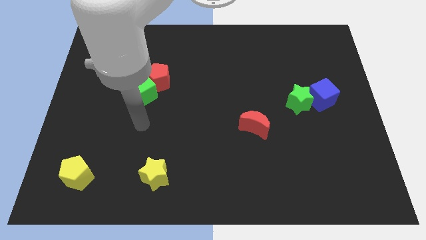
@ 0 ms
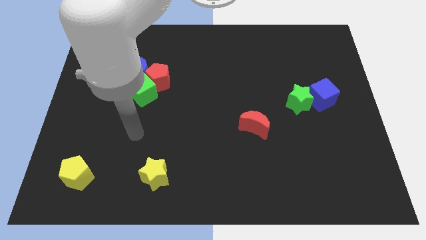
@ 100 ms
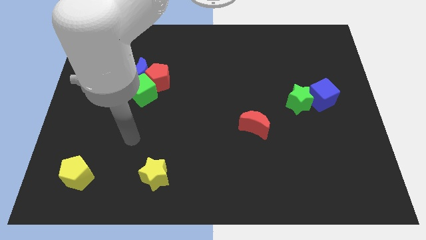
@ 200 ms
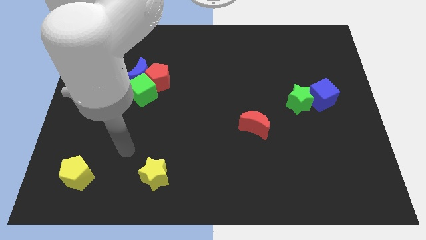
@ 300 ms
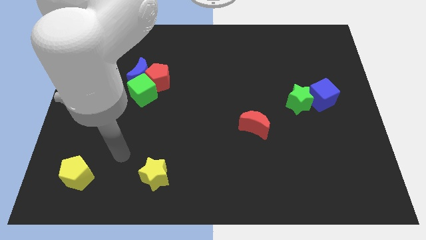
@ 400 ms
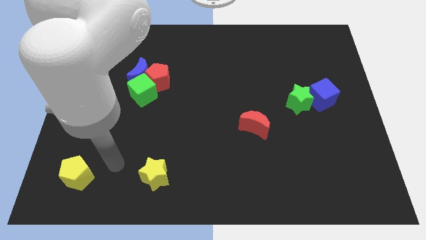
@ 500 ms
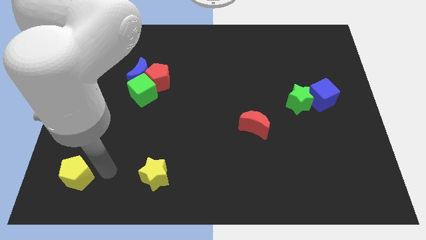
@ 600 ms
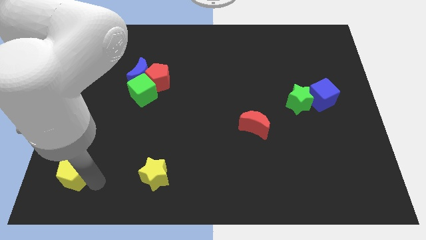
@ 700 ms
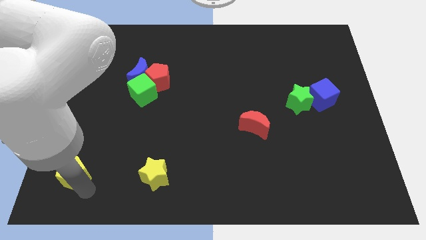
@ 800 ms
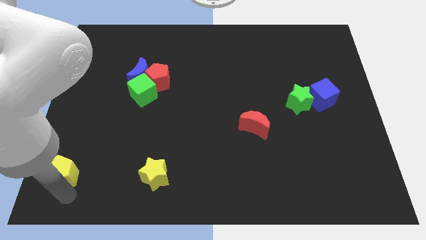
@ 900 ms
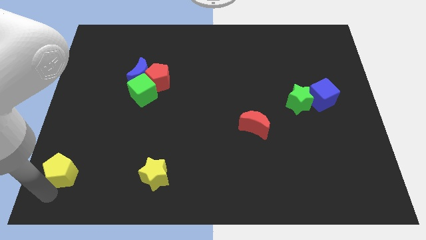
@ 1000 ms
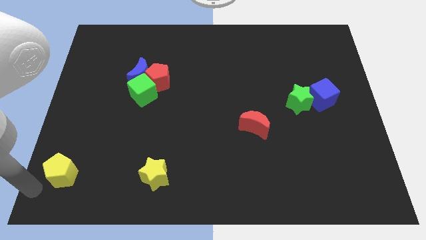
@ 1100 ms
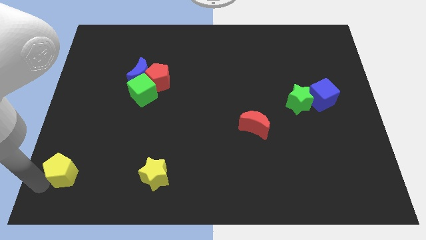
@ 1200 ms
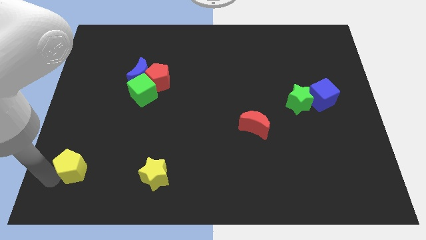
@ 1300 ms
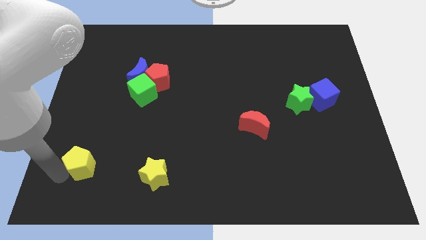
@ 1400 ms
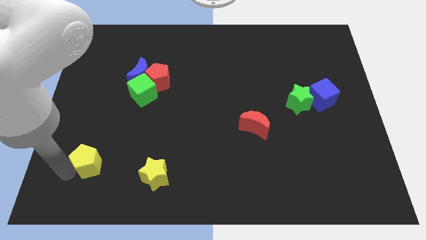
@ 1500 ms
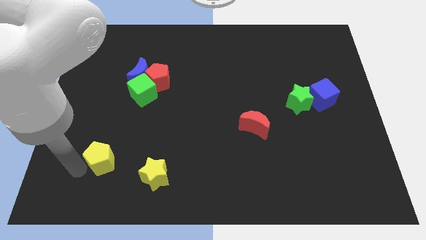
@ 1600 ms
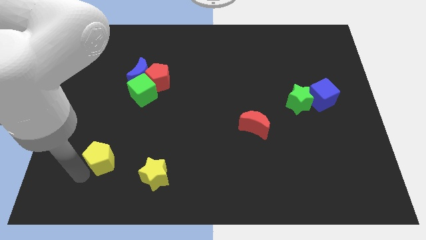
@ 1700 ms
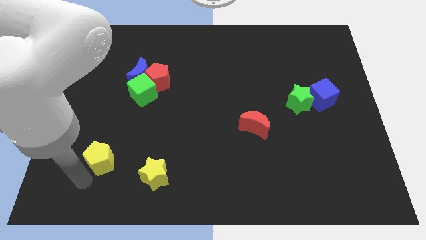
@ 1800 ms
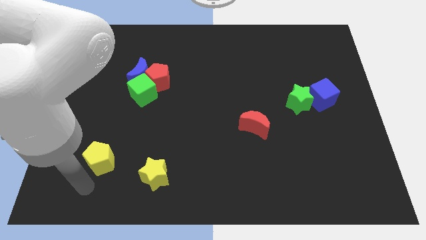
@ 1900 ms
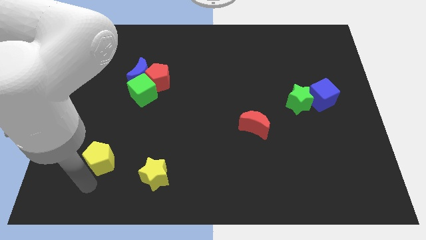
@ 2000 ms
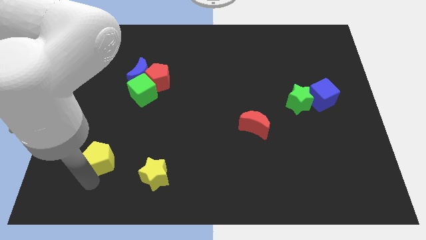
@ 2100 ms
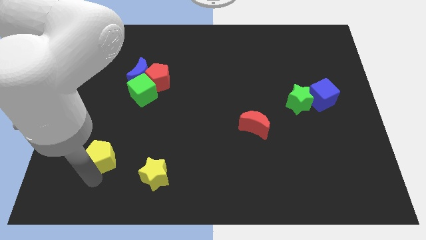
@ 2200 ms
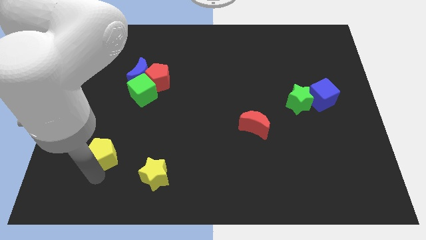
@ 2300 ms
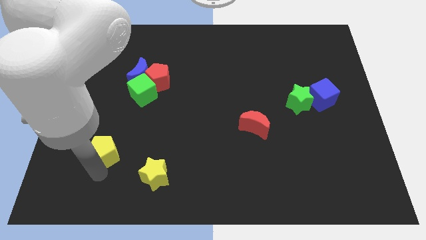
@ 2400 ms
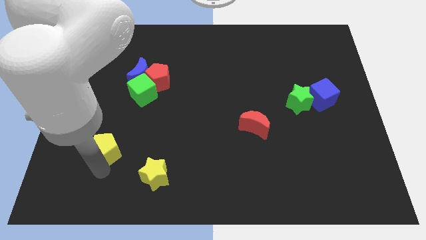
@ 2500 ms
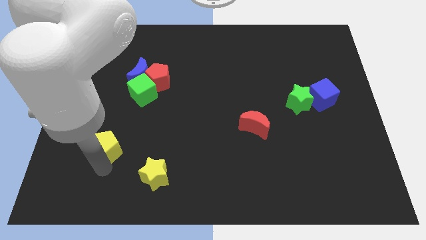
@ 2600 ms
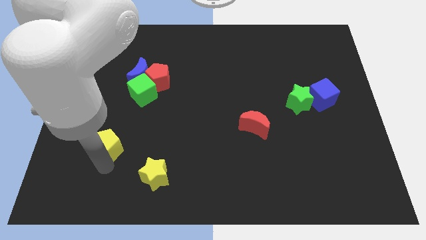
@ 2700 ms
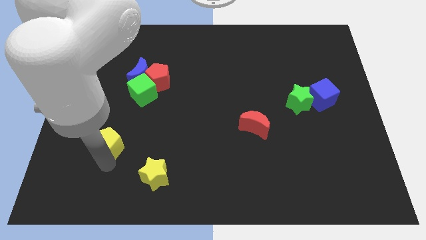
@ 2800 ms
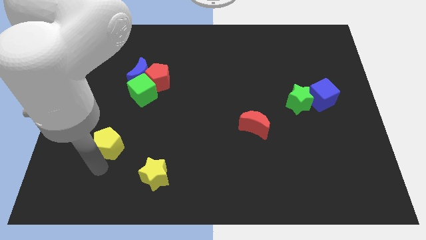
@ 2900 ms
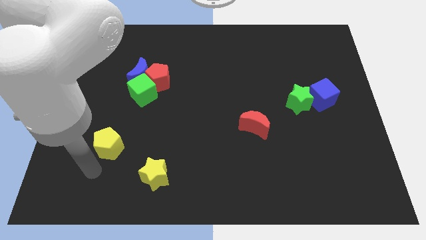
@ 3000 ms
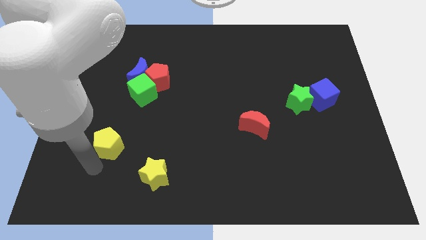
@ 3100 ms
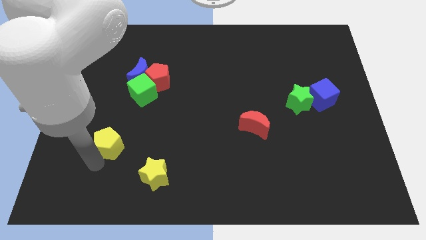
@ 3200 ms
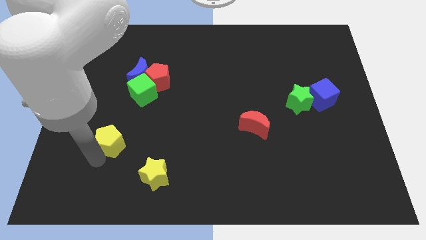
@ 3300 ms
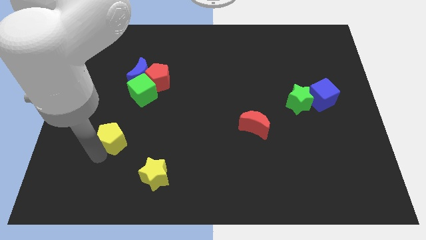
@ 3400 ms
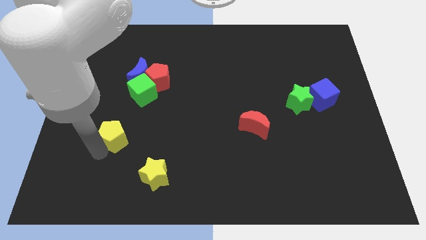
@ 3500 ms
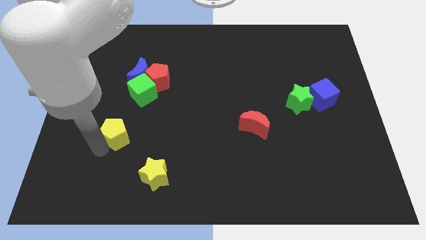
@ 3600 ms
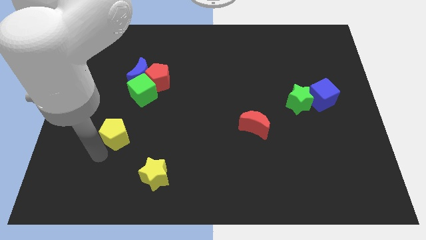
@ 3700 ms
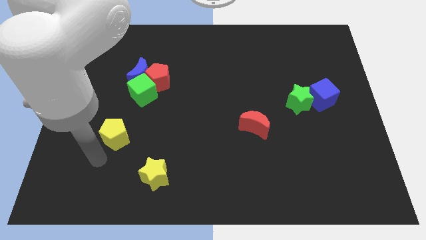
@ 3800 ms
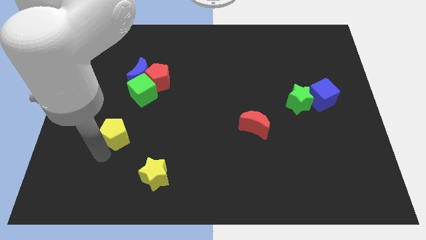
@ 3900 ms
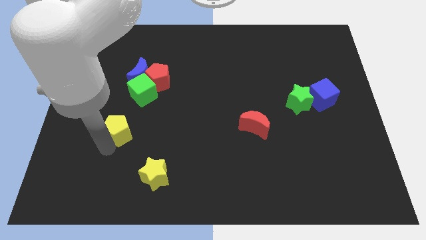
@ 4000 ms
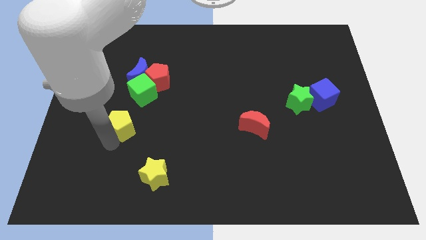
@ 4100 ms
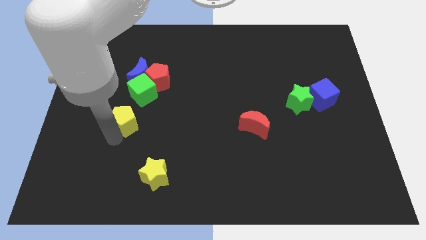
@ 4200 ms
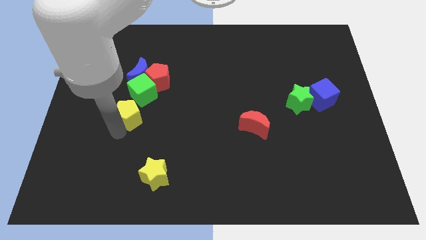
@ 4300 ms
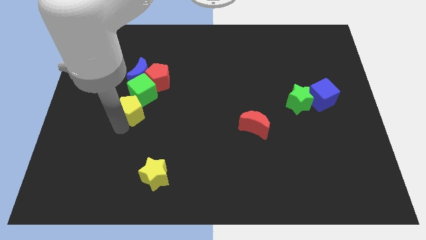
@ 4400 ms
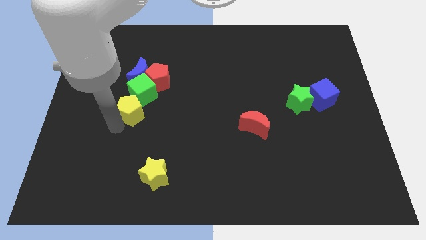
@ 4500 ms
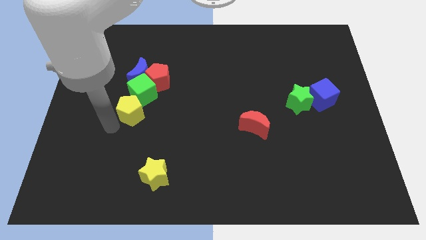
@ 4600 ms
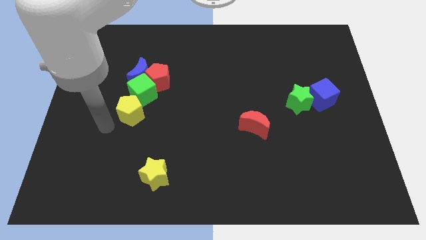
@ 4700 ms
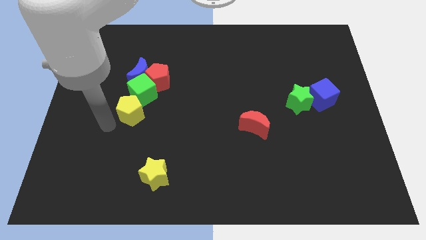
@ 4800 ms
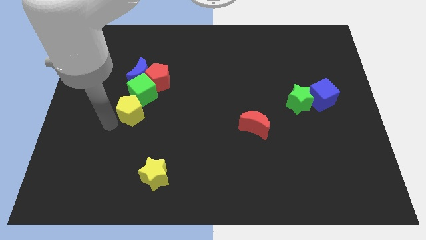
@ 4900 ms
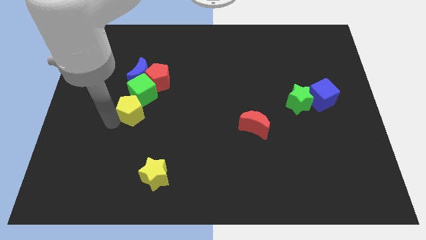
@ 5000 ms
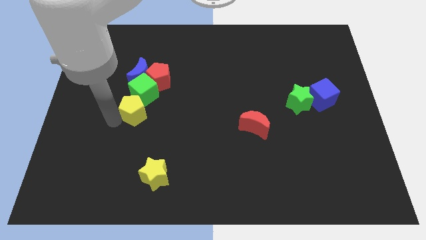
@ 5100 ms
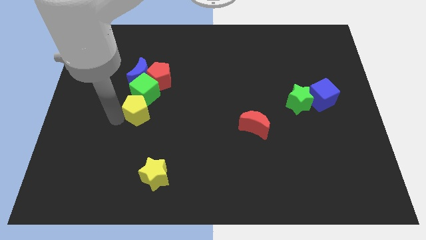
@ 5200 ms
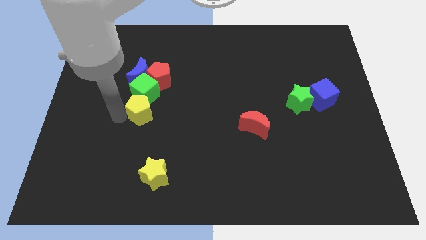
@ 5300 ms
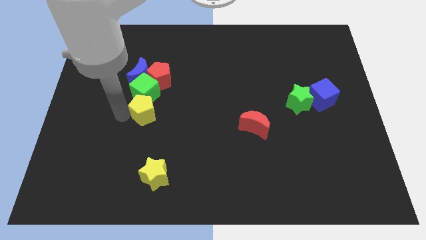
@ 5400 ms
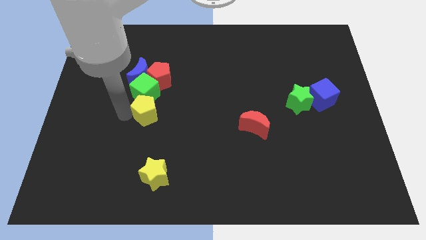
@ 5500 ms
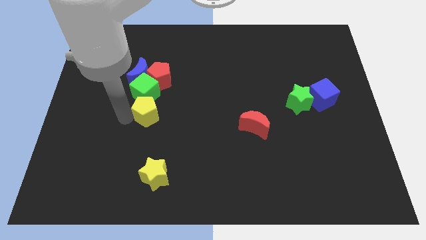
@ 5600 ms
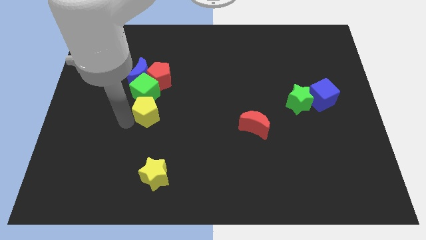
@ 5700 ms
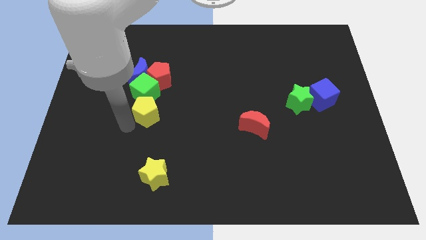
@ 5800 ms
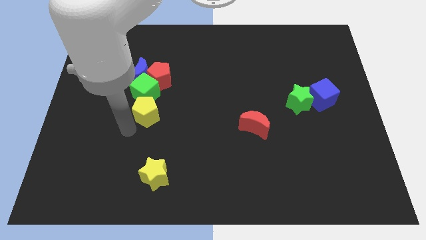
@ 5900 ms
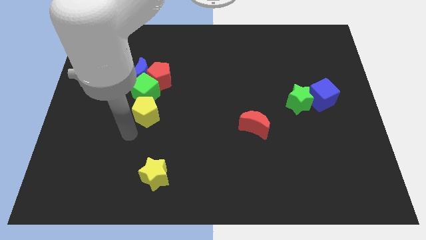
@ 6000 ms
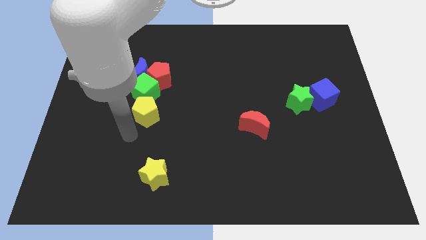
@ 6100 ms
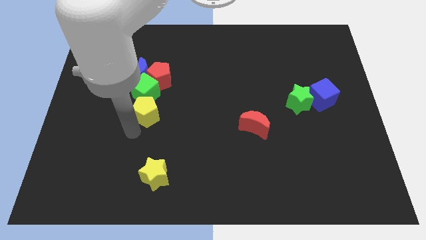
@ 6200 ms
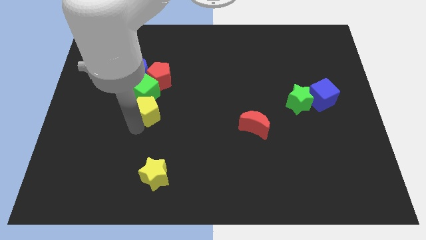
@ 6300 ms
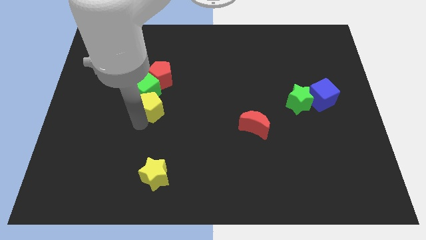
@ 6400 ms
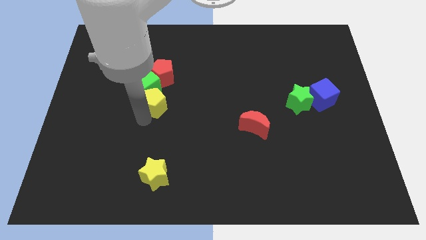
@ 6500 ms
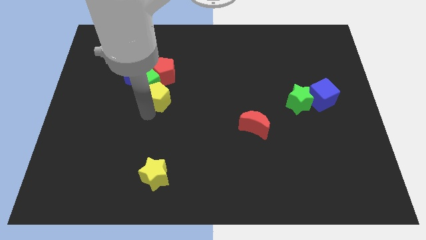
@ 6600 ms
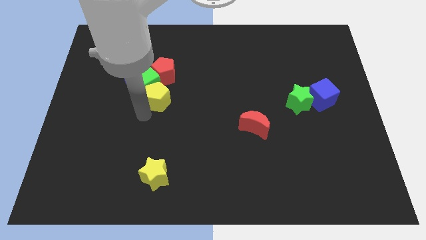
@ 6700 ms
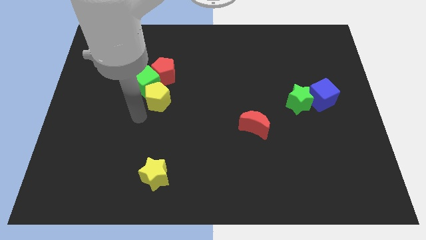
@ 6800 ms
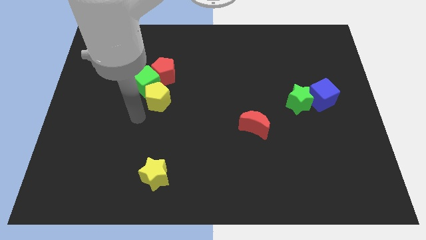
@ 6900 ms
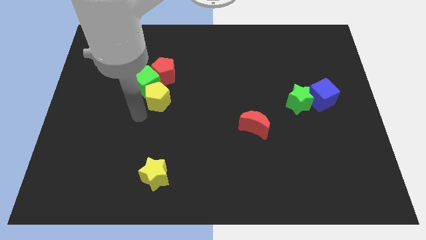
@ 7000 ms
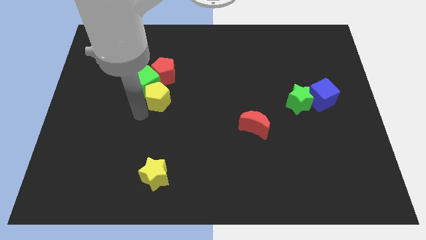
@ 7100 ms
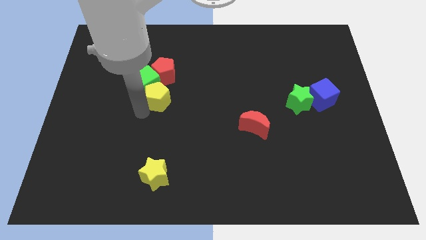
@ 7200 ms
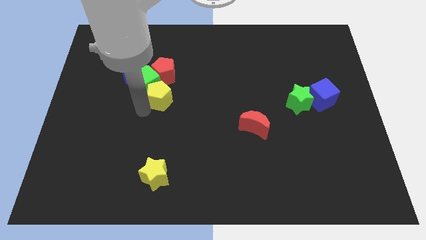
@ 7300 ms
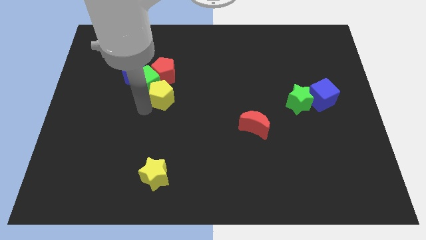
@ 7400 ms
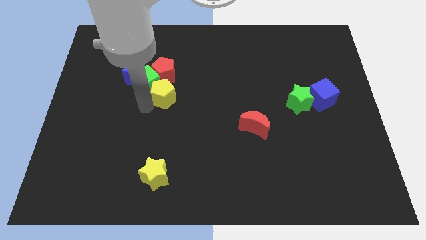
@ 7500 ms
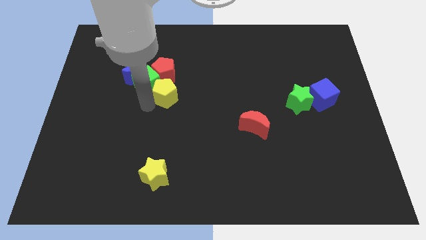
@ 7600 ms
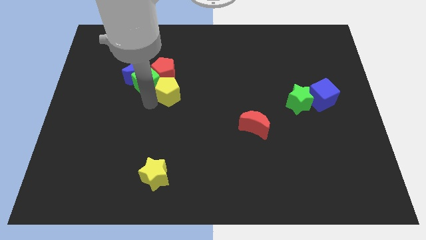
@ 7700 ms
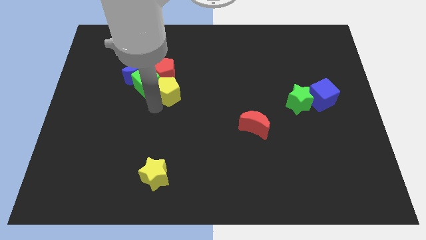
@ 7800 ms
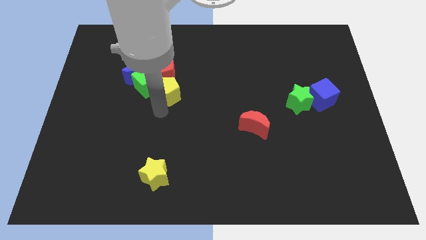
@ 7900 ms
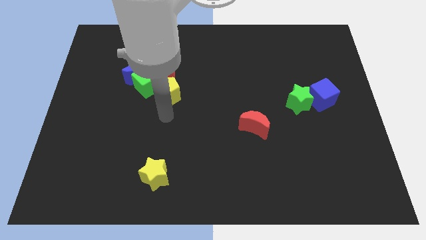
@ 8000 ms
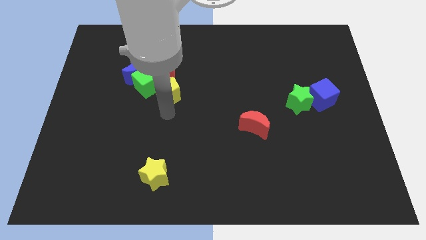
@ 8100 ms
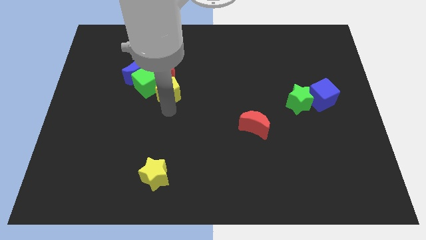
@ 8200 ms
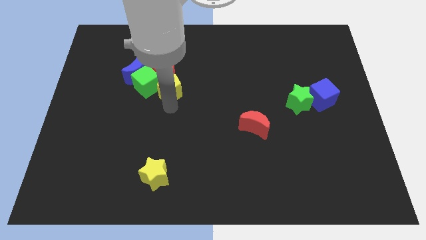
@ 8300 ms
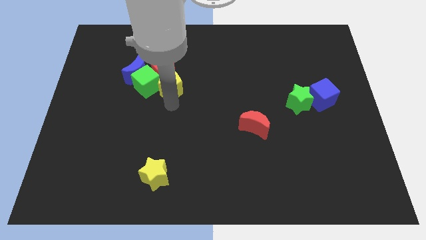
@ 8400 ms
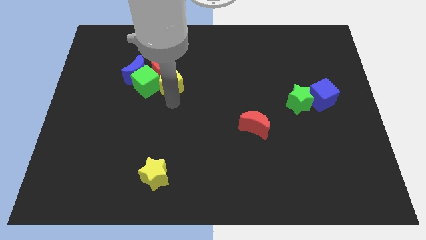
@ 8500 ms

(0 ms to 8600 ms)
move the yellow pentagon to the top right side of the green cube
